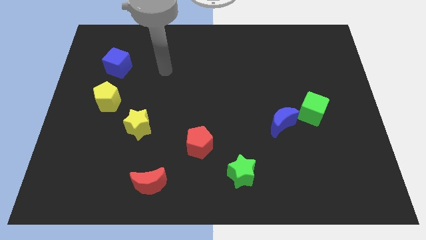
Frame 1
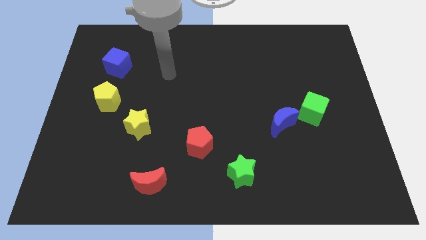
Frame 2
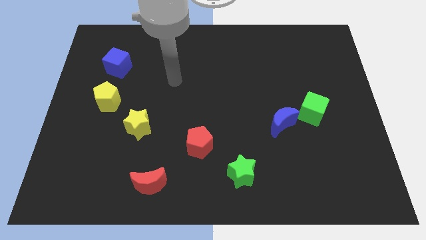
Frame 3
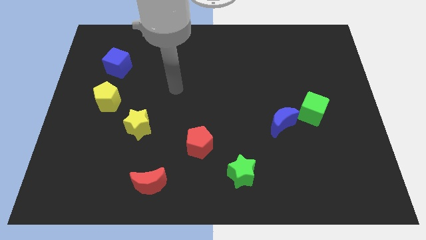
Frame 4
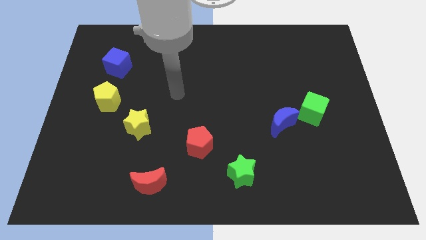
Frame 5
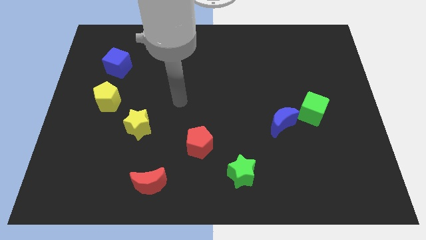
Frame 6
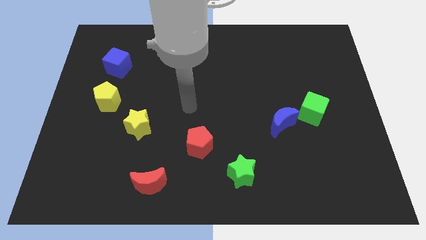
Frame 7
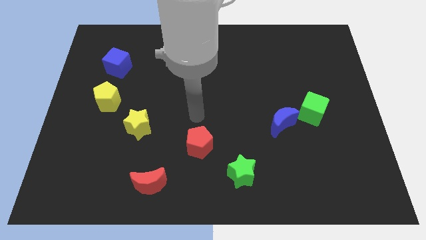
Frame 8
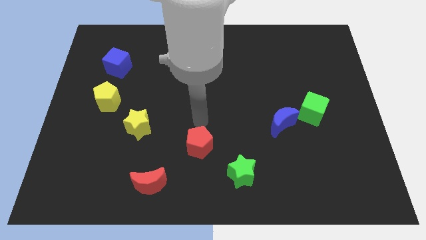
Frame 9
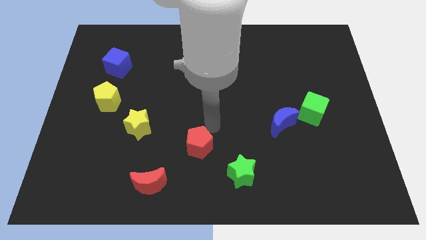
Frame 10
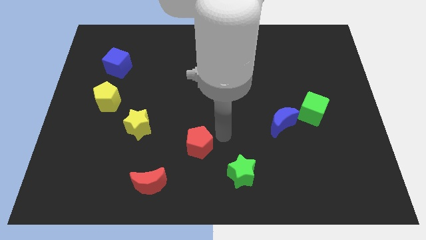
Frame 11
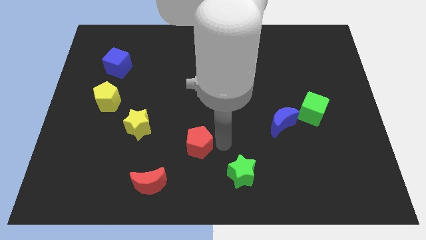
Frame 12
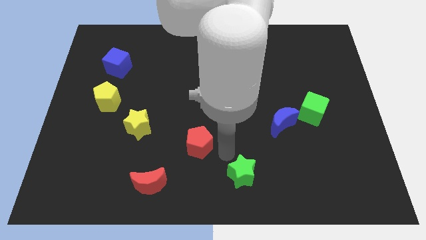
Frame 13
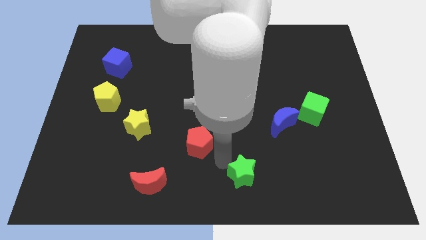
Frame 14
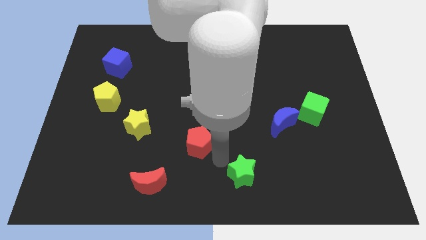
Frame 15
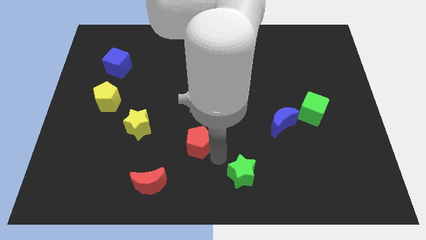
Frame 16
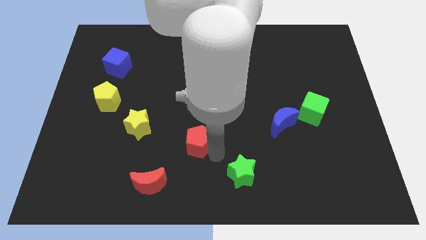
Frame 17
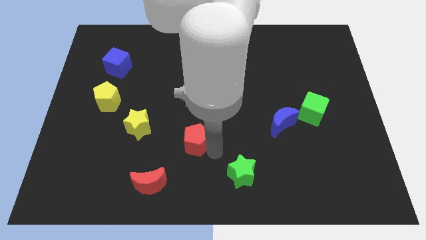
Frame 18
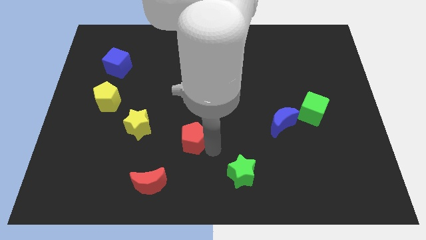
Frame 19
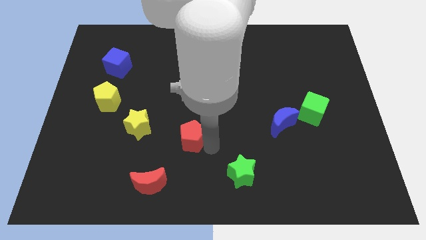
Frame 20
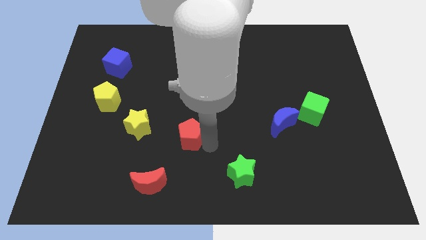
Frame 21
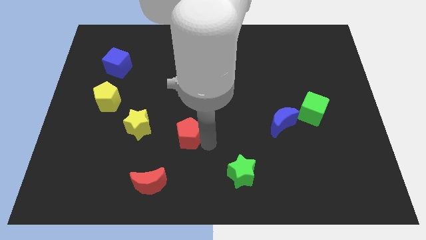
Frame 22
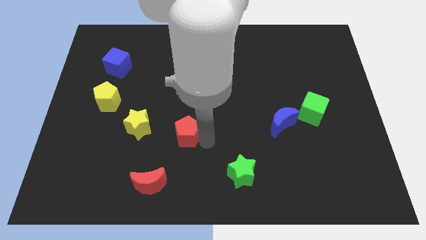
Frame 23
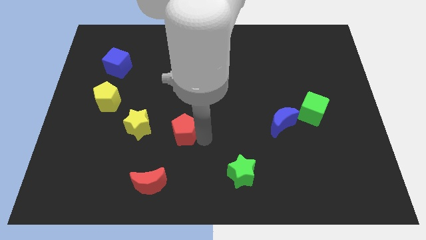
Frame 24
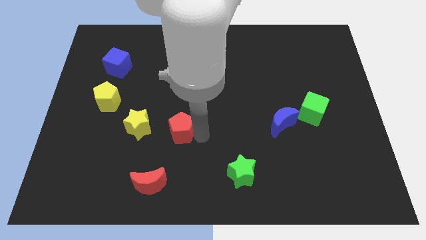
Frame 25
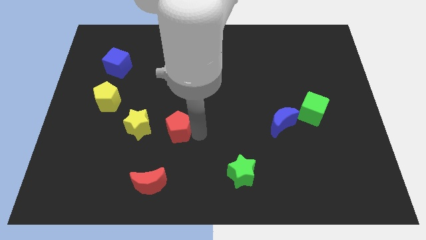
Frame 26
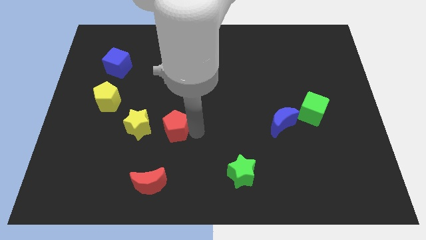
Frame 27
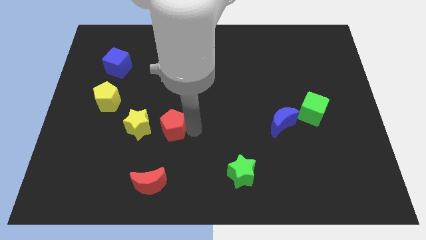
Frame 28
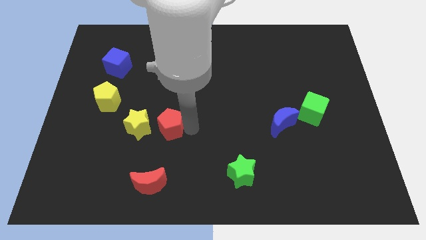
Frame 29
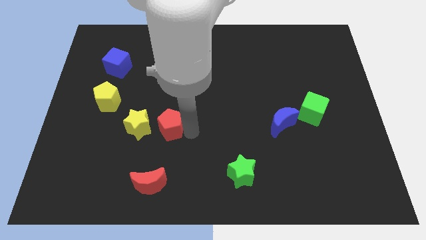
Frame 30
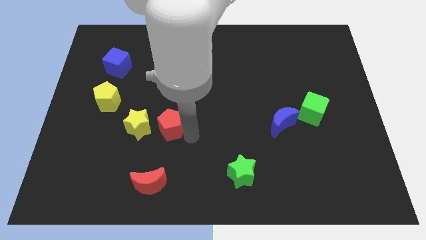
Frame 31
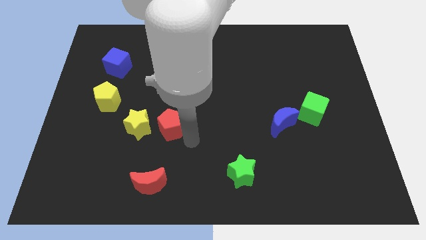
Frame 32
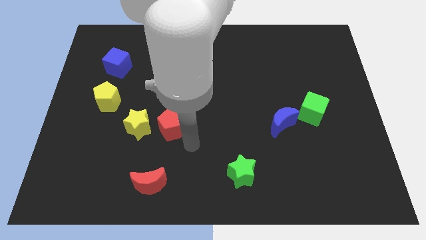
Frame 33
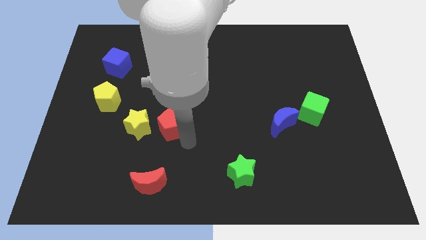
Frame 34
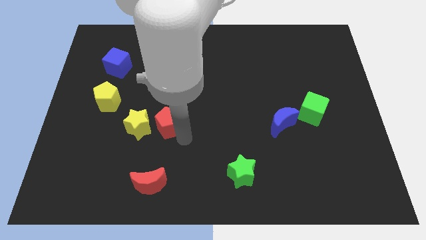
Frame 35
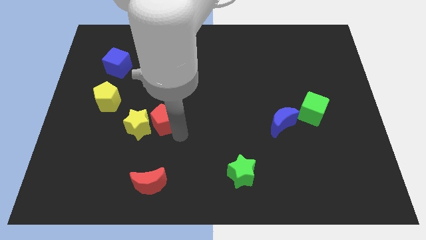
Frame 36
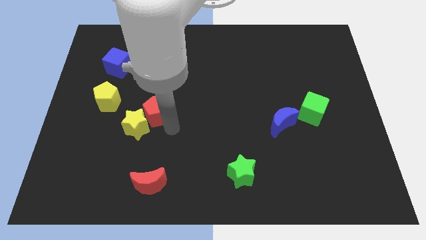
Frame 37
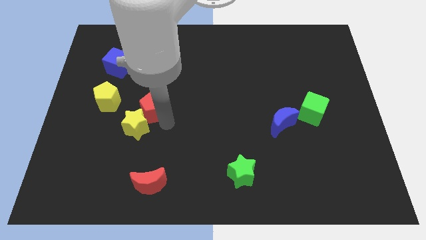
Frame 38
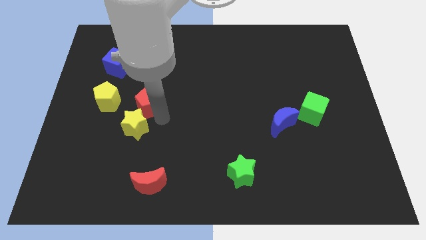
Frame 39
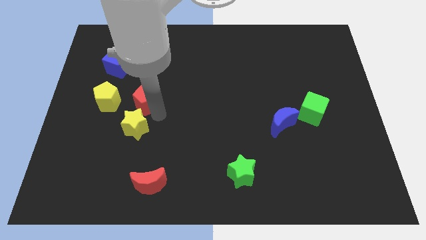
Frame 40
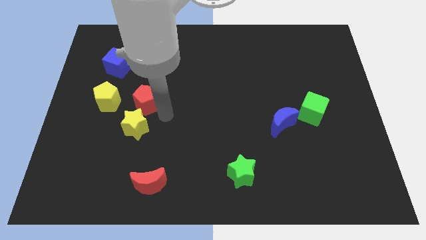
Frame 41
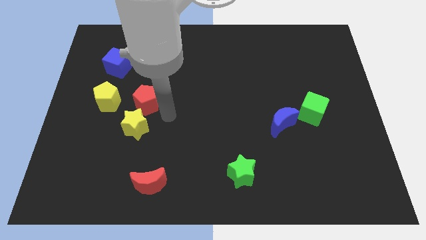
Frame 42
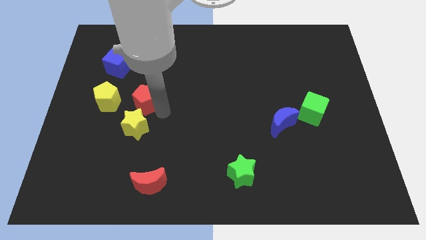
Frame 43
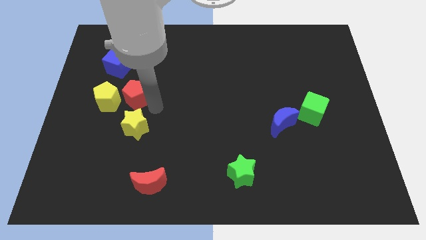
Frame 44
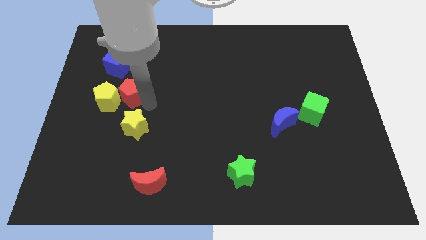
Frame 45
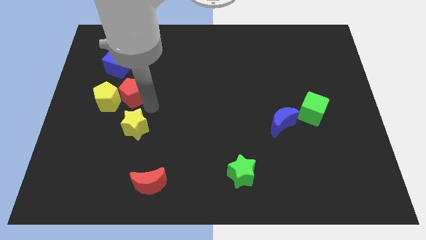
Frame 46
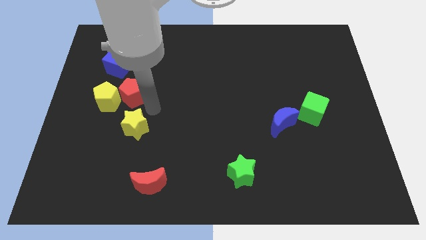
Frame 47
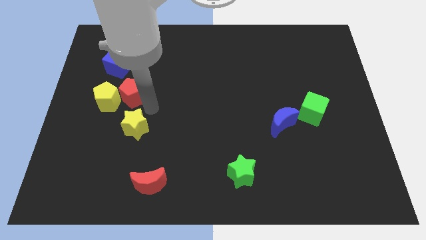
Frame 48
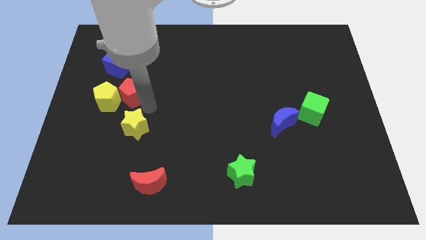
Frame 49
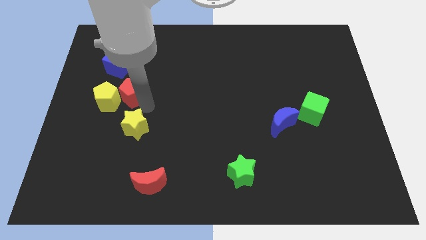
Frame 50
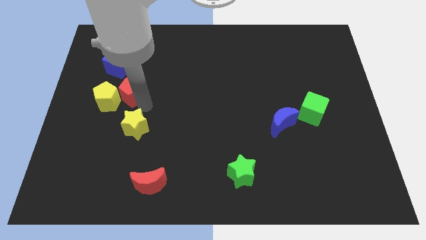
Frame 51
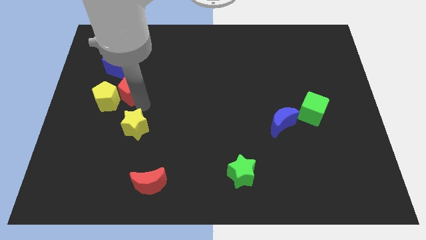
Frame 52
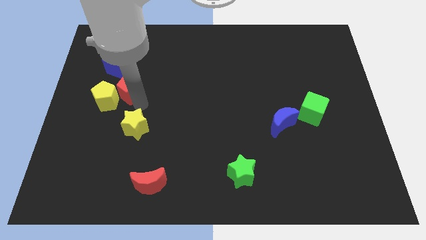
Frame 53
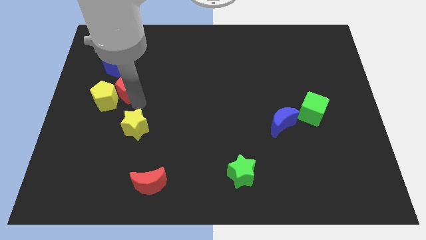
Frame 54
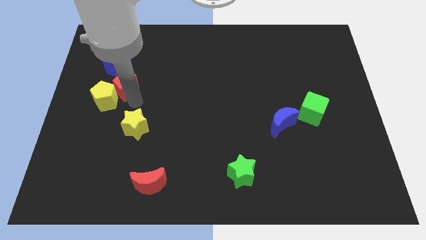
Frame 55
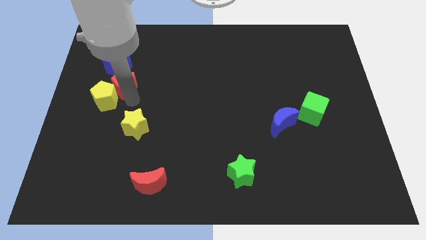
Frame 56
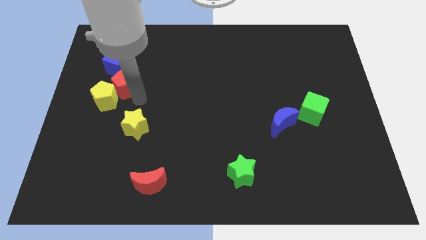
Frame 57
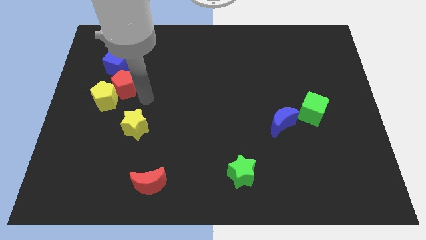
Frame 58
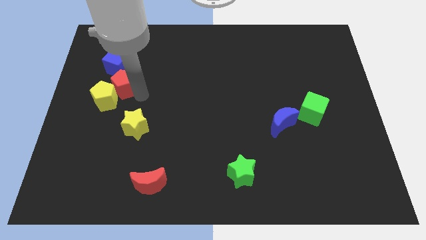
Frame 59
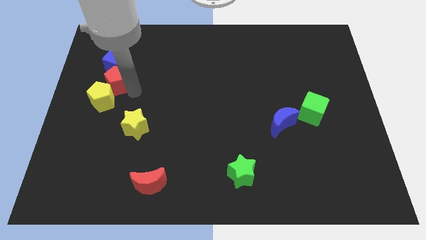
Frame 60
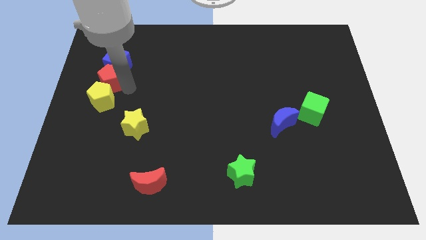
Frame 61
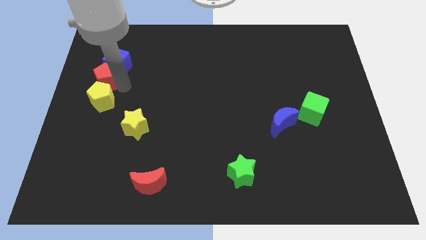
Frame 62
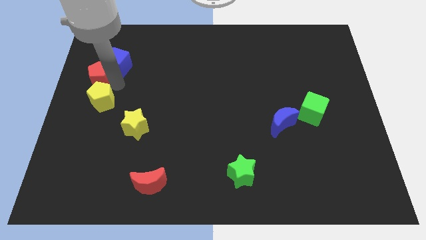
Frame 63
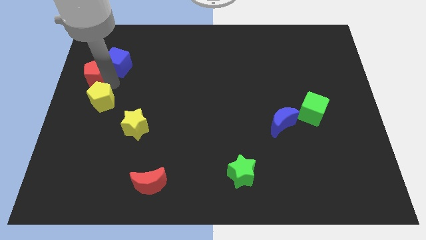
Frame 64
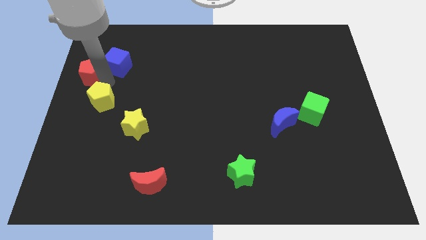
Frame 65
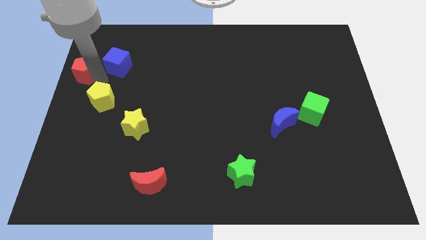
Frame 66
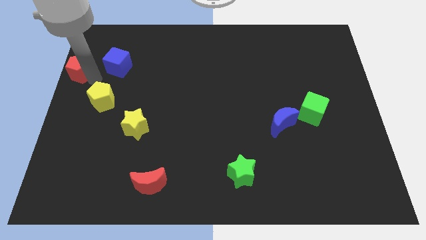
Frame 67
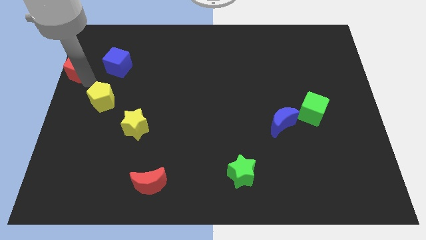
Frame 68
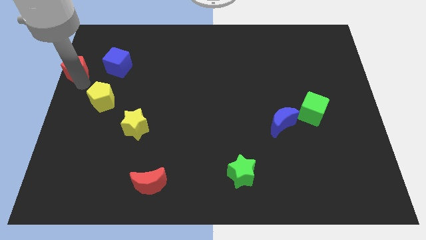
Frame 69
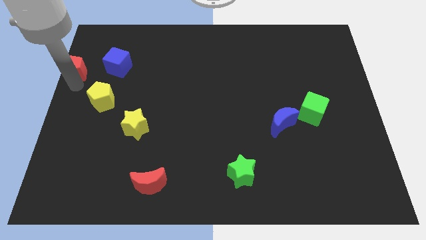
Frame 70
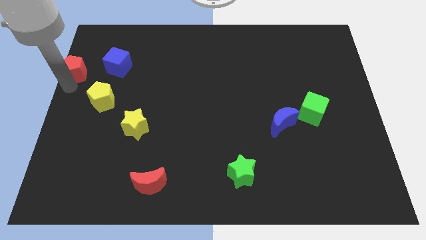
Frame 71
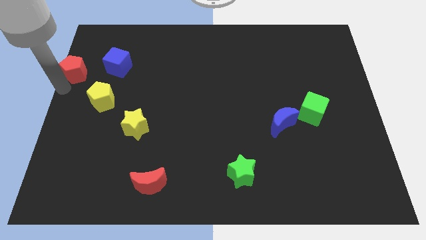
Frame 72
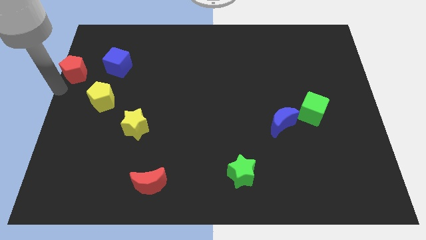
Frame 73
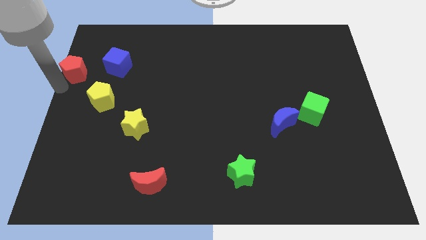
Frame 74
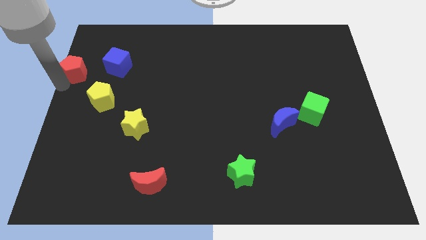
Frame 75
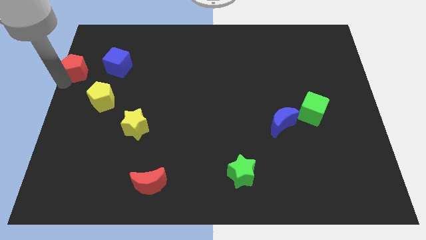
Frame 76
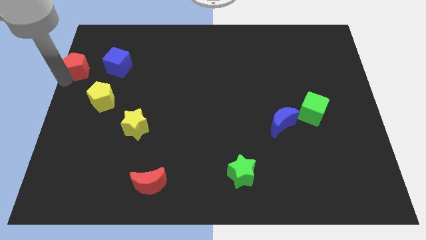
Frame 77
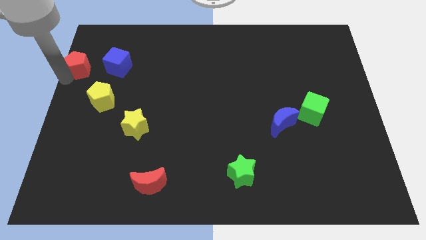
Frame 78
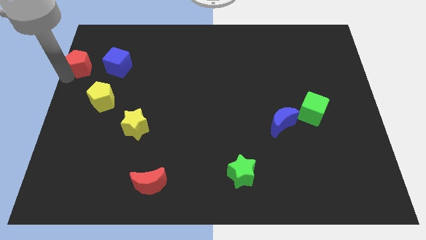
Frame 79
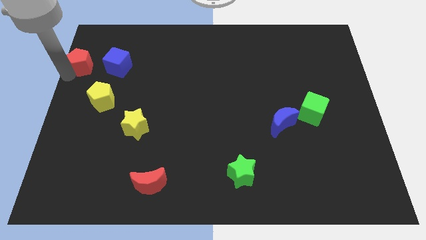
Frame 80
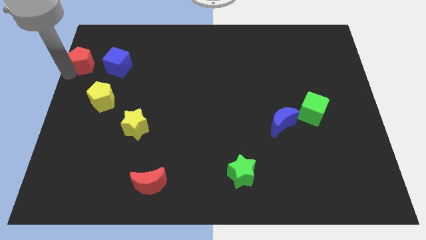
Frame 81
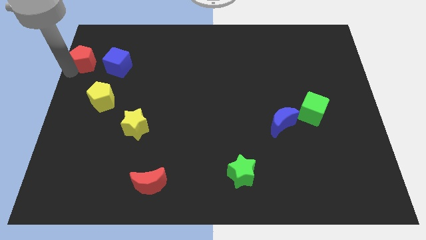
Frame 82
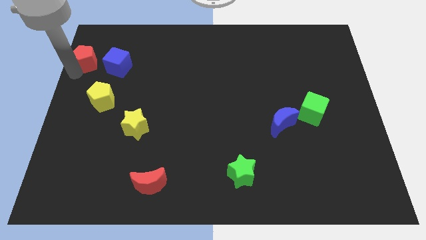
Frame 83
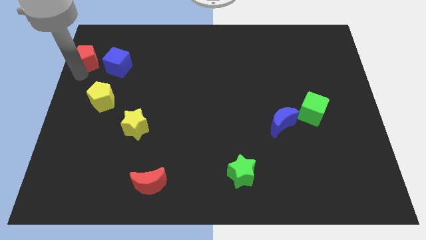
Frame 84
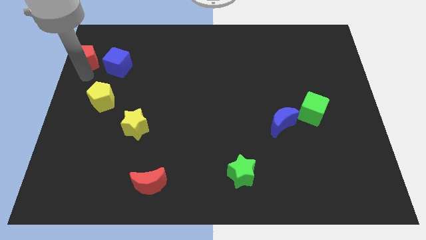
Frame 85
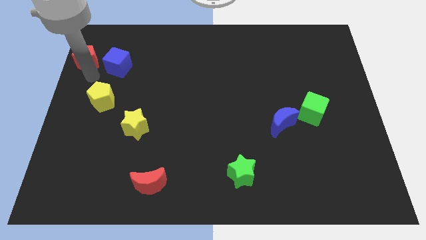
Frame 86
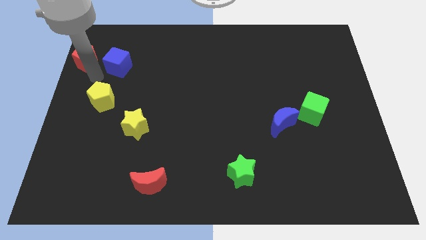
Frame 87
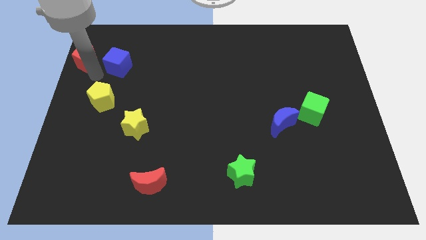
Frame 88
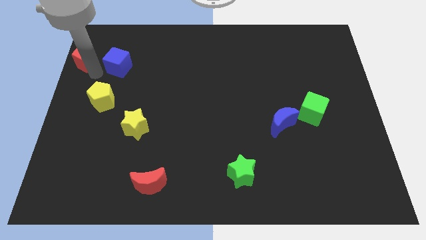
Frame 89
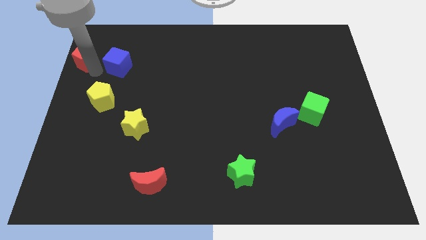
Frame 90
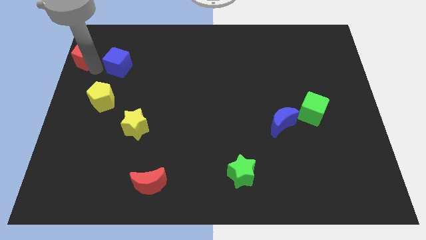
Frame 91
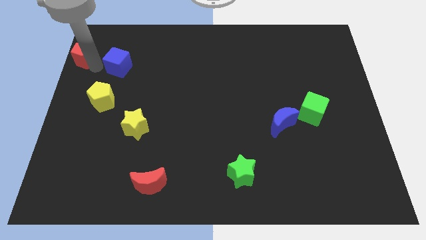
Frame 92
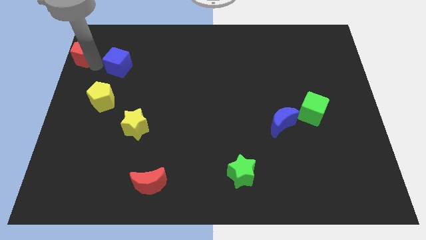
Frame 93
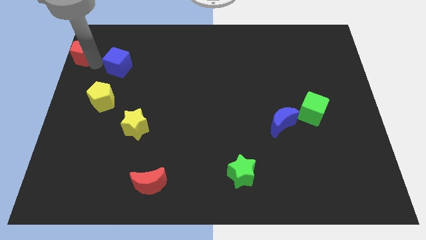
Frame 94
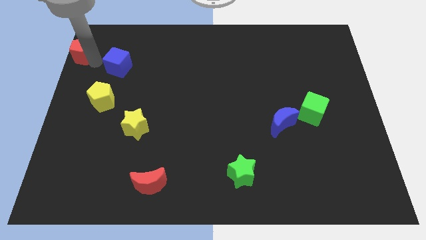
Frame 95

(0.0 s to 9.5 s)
push the red pentagon to the top left of the board
